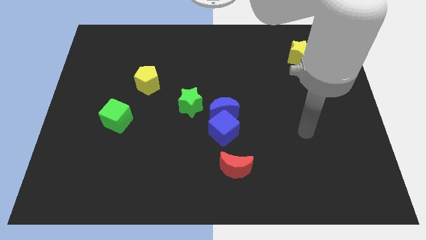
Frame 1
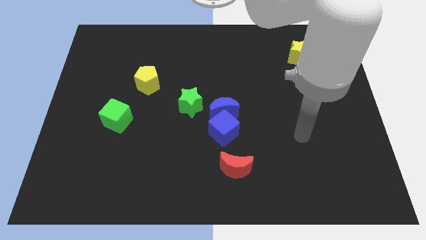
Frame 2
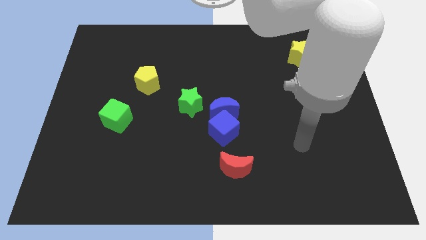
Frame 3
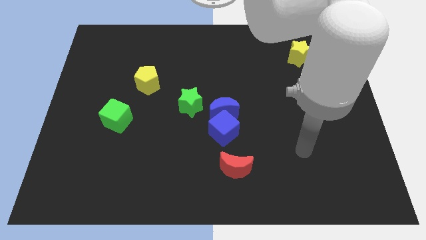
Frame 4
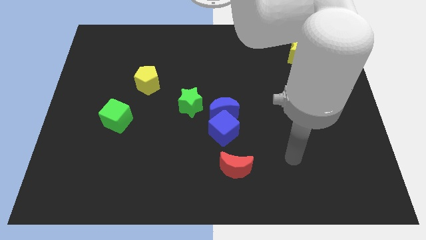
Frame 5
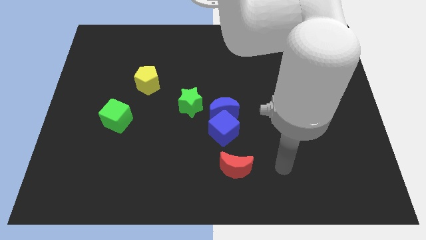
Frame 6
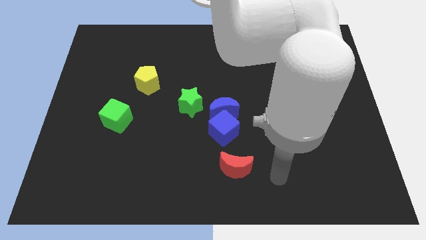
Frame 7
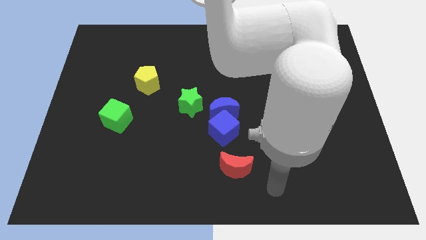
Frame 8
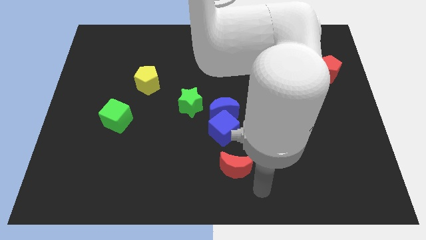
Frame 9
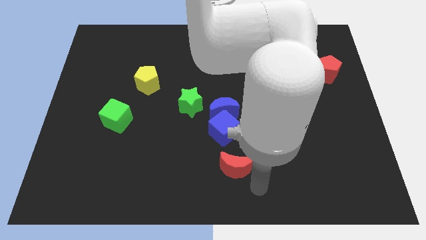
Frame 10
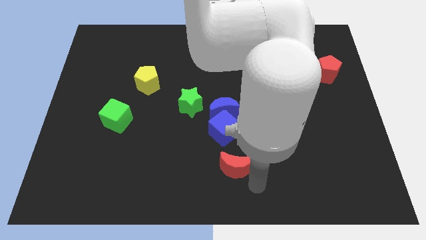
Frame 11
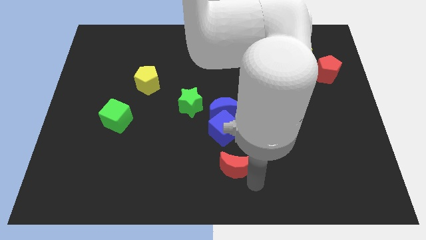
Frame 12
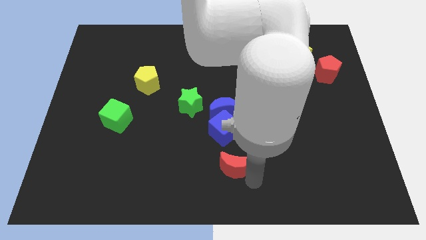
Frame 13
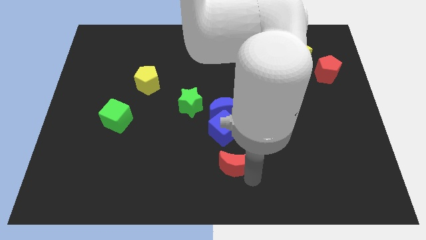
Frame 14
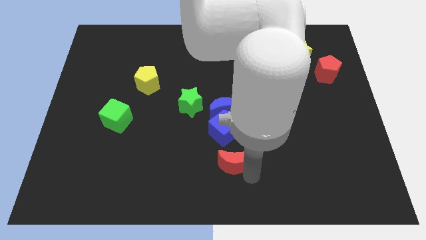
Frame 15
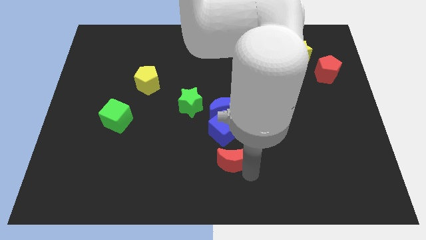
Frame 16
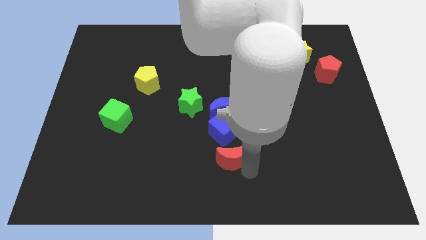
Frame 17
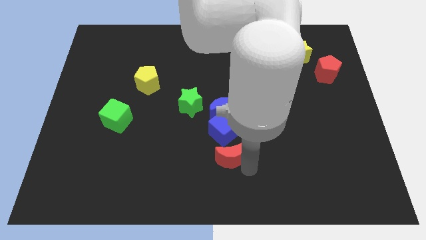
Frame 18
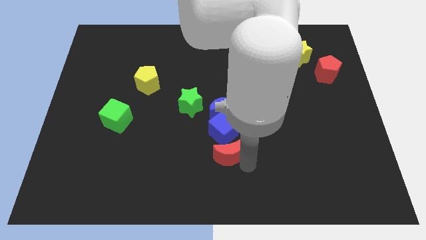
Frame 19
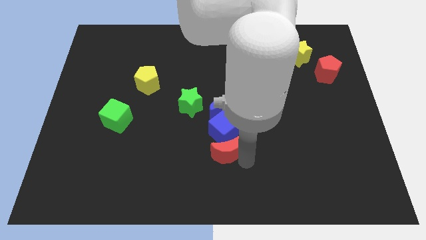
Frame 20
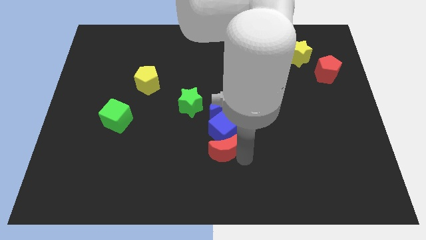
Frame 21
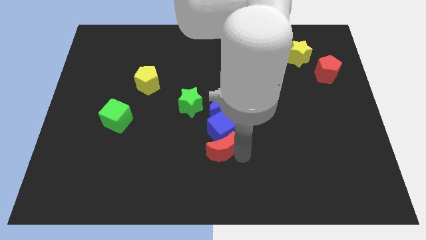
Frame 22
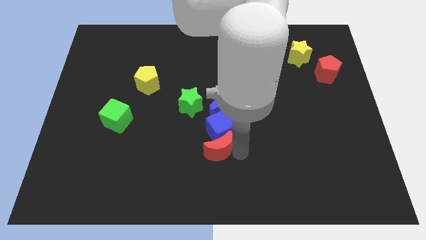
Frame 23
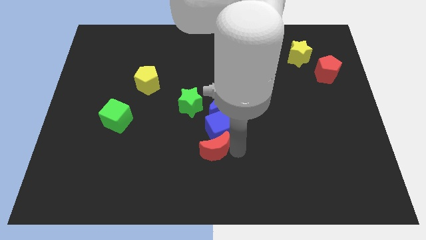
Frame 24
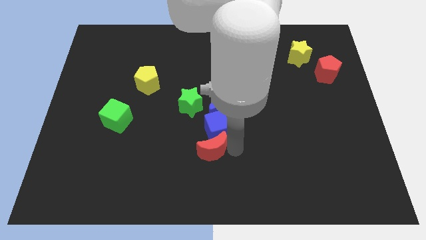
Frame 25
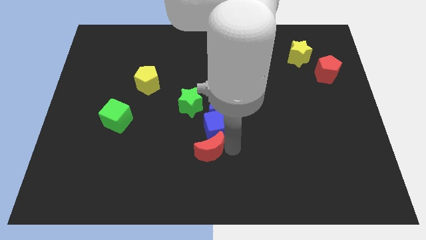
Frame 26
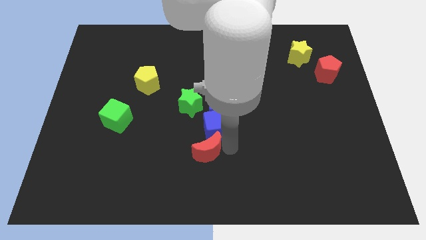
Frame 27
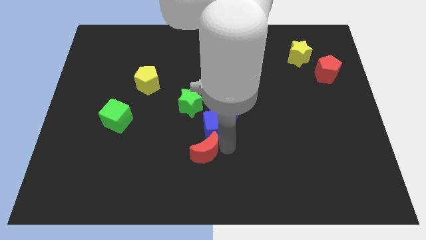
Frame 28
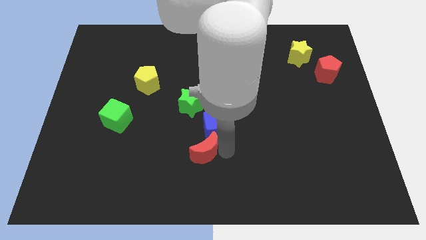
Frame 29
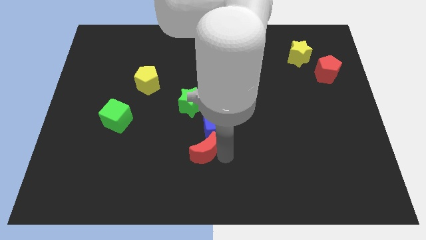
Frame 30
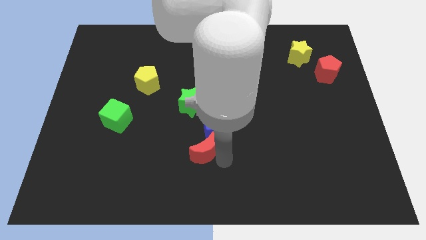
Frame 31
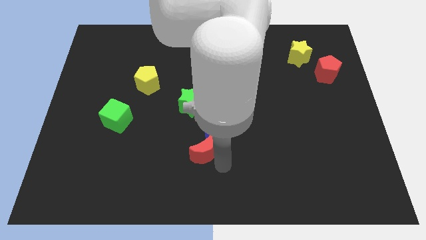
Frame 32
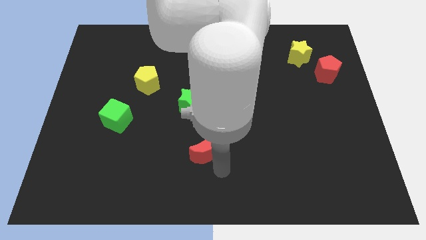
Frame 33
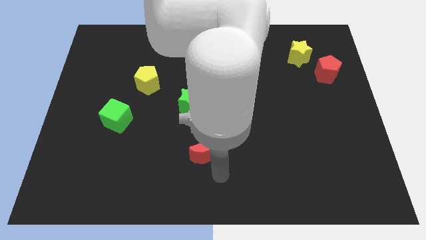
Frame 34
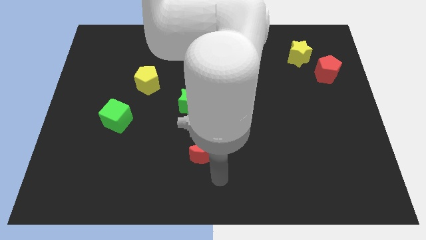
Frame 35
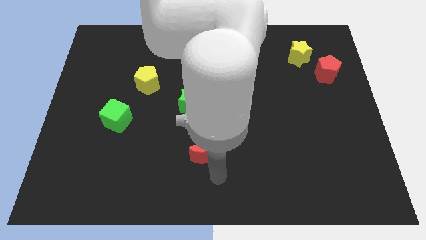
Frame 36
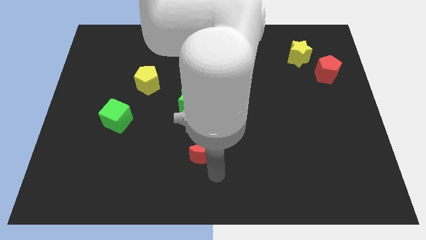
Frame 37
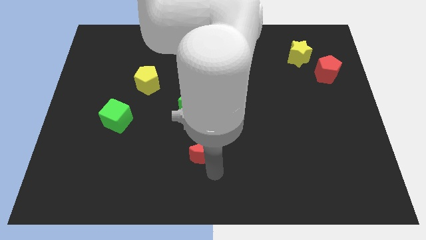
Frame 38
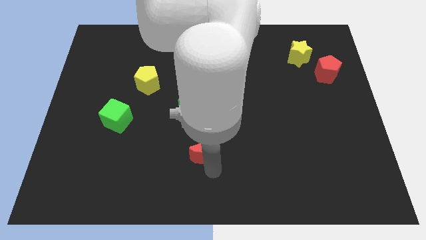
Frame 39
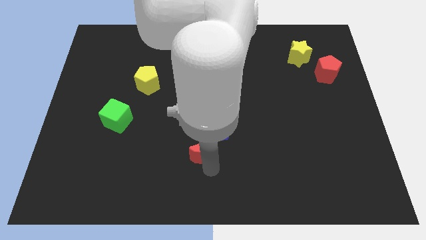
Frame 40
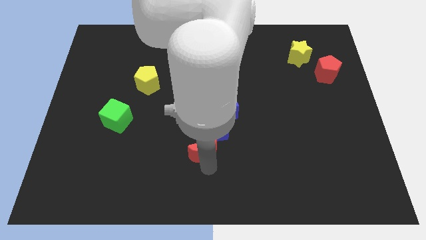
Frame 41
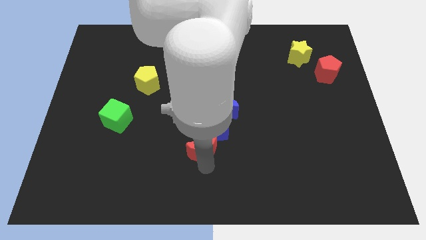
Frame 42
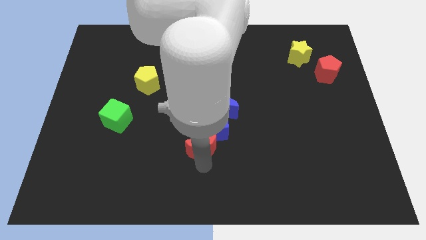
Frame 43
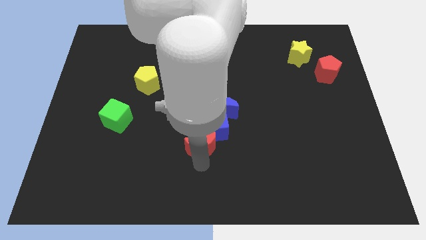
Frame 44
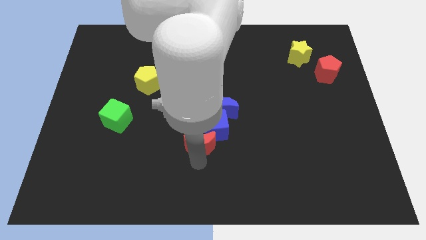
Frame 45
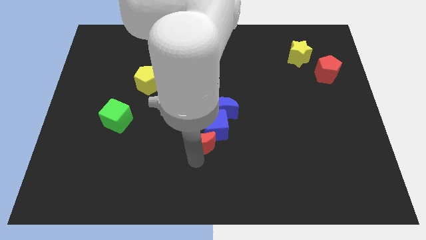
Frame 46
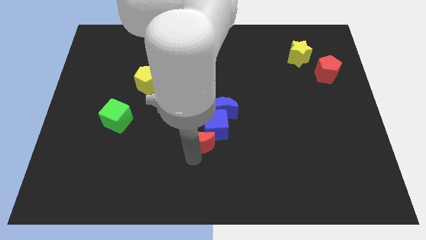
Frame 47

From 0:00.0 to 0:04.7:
move the red moon to the middle of the board

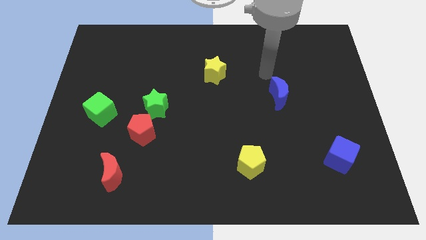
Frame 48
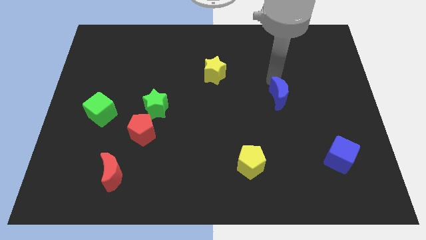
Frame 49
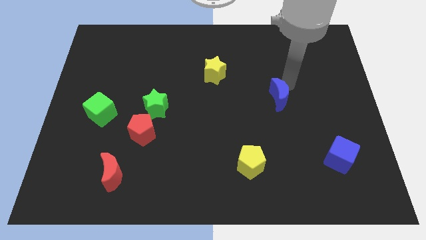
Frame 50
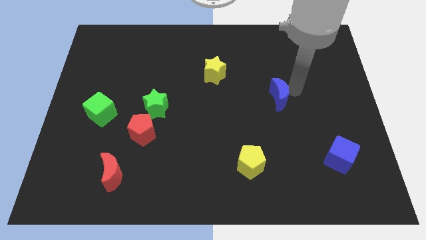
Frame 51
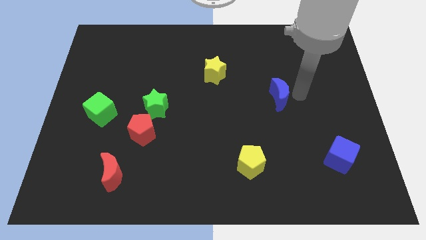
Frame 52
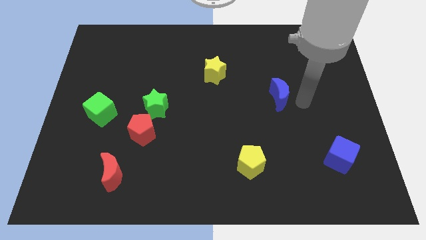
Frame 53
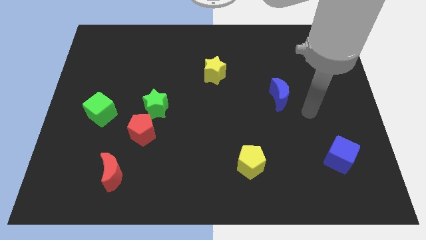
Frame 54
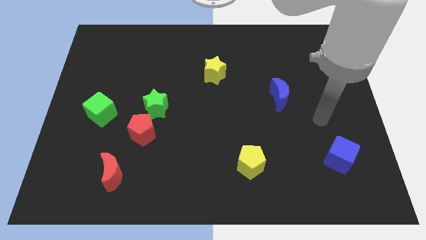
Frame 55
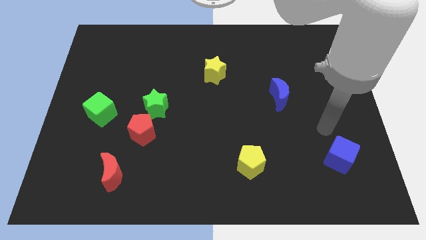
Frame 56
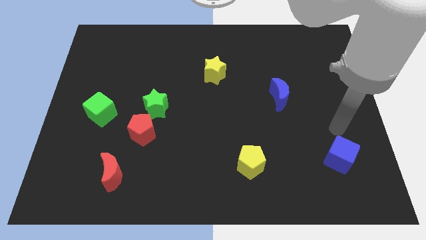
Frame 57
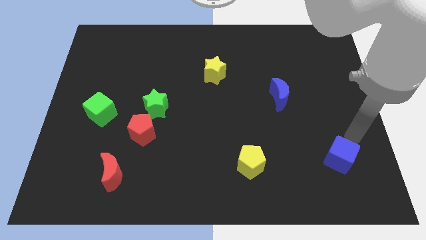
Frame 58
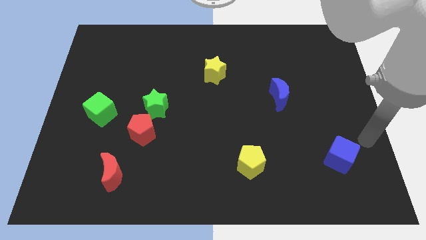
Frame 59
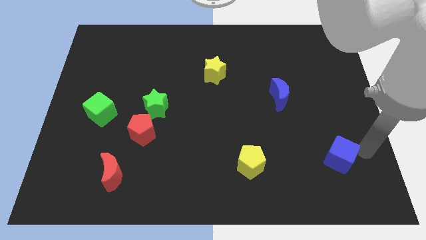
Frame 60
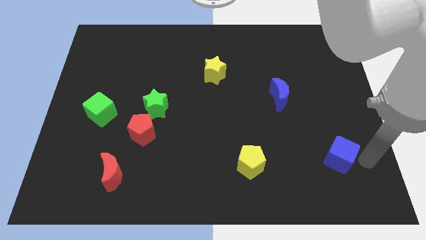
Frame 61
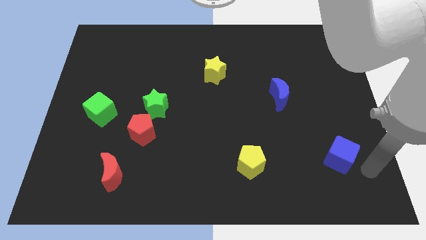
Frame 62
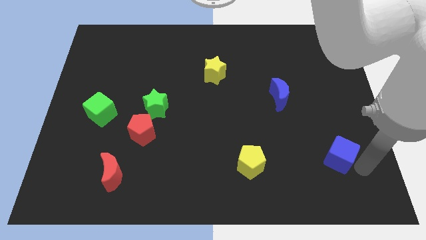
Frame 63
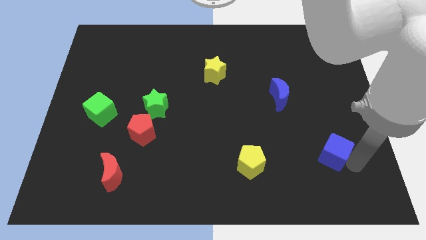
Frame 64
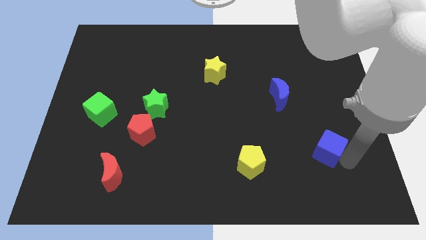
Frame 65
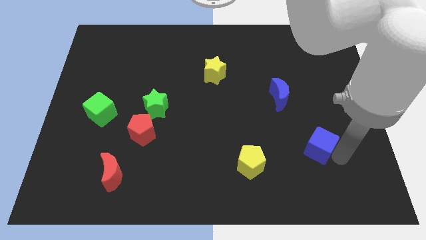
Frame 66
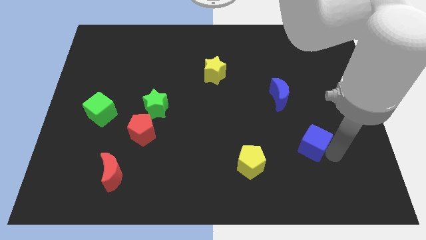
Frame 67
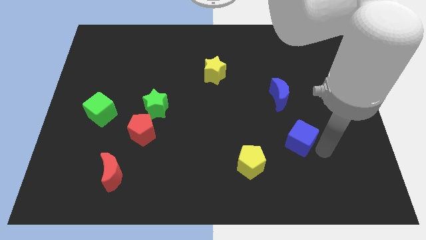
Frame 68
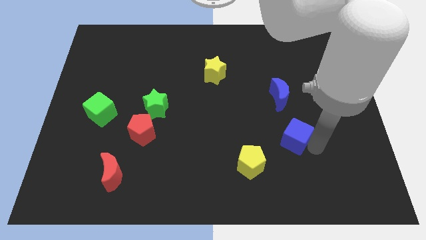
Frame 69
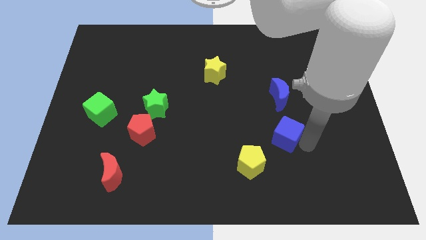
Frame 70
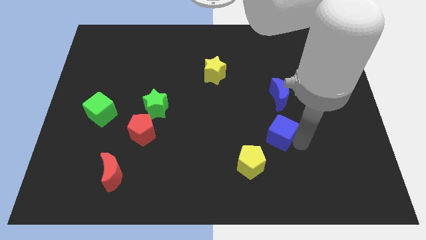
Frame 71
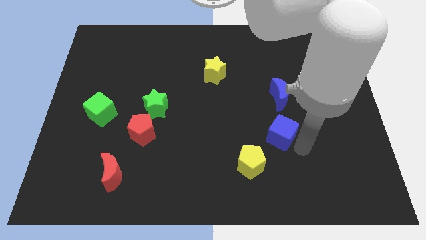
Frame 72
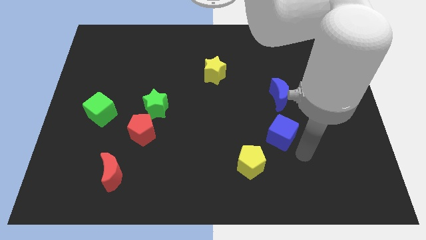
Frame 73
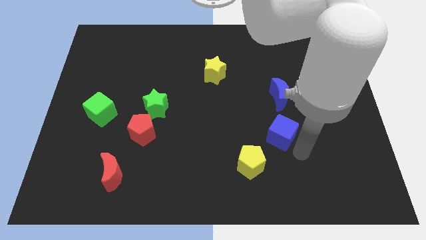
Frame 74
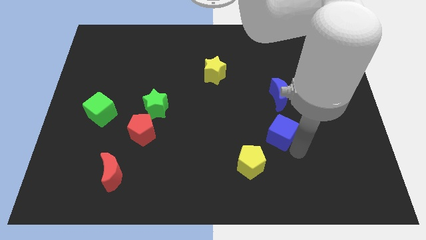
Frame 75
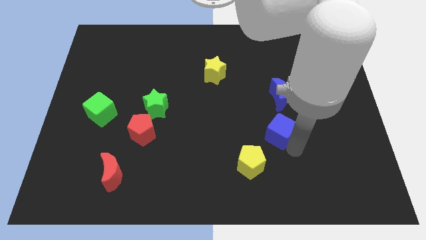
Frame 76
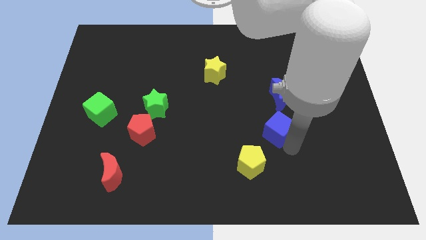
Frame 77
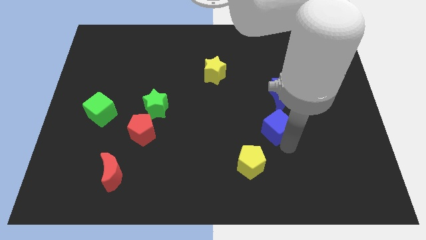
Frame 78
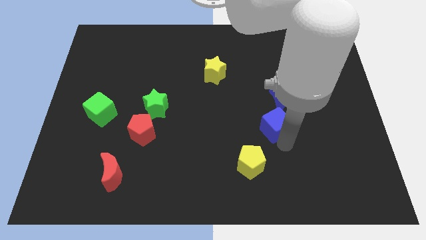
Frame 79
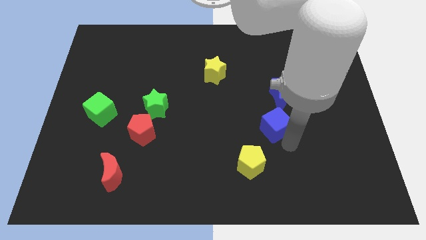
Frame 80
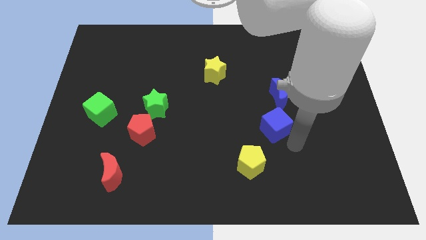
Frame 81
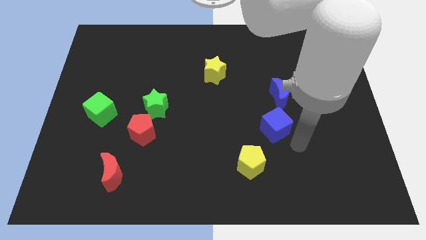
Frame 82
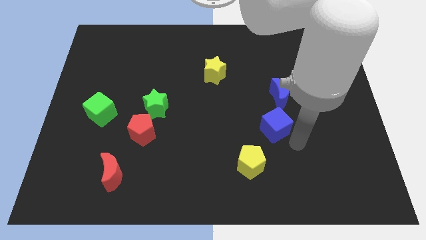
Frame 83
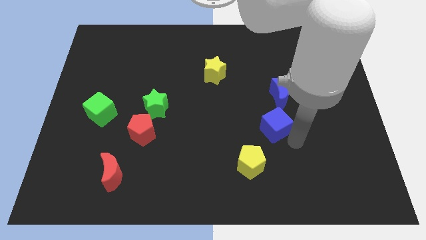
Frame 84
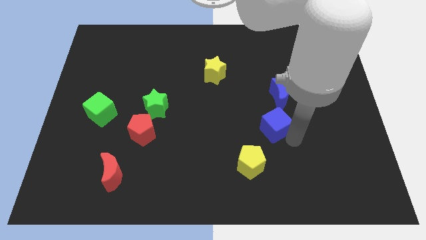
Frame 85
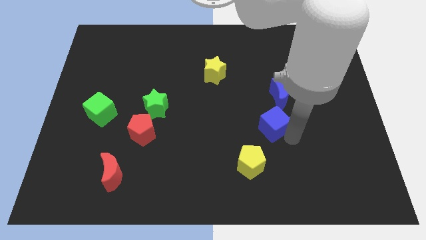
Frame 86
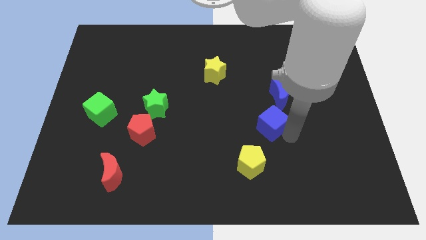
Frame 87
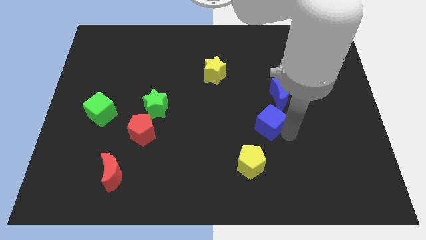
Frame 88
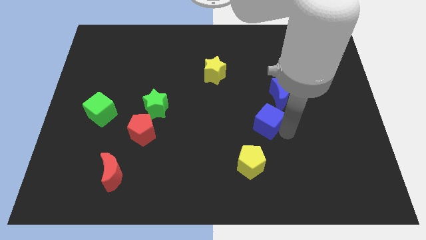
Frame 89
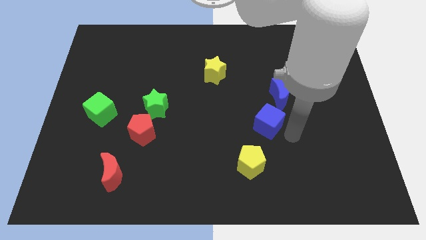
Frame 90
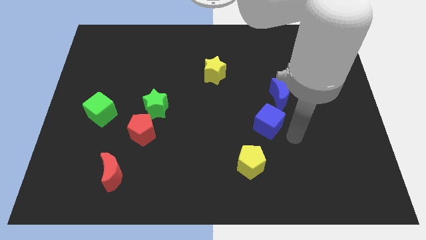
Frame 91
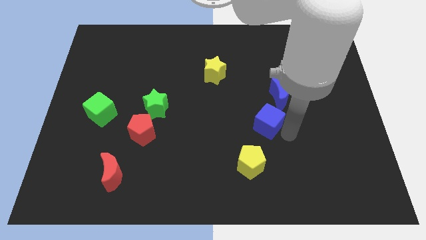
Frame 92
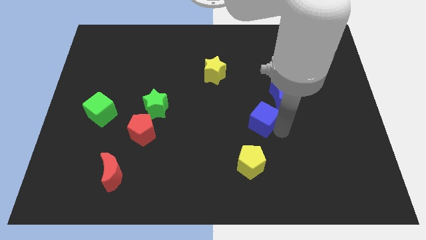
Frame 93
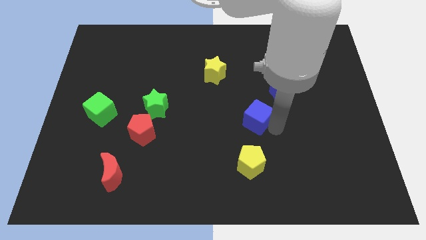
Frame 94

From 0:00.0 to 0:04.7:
push the blue cube to the middle of the board
